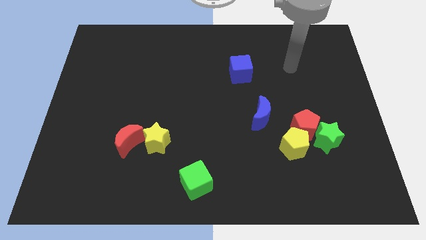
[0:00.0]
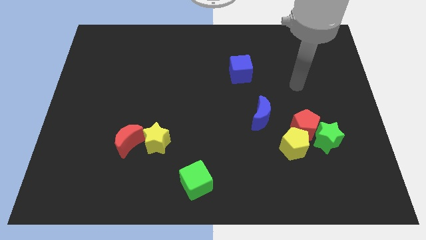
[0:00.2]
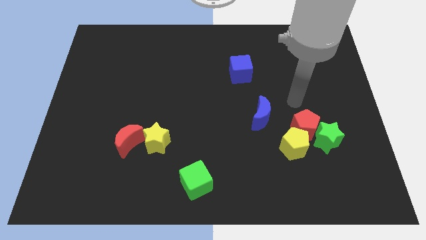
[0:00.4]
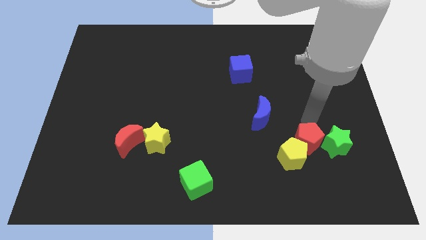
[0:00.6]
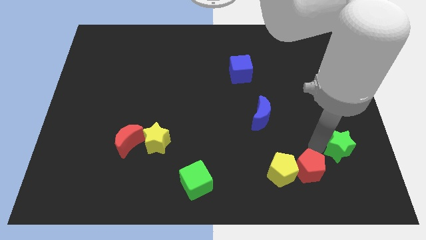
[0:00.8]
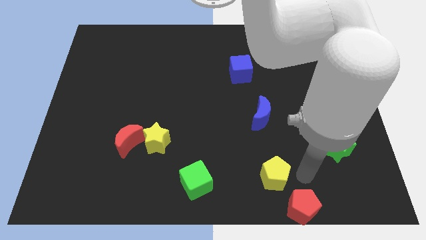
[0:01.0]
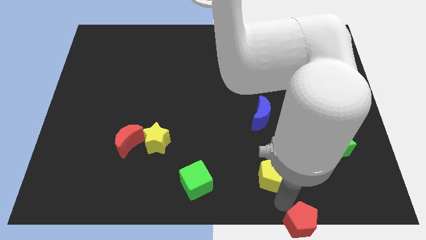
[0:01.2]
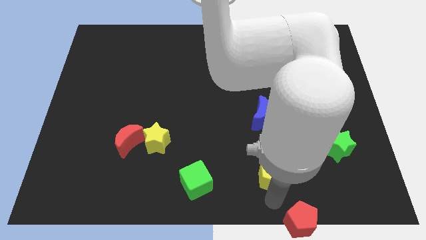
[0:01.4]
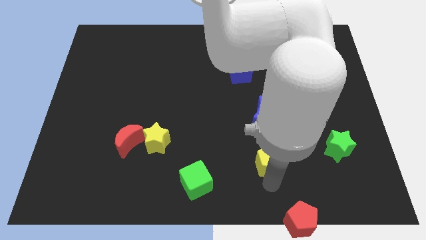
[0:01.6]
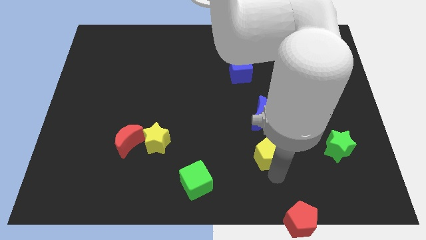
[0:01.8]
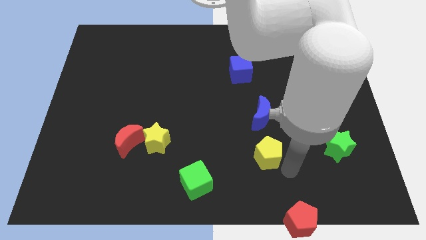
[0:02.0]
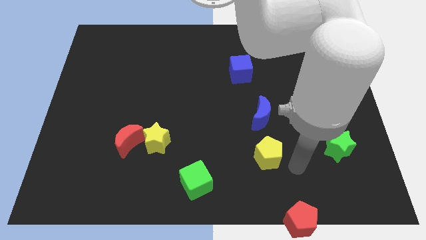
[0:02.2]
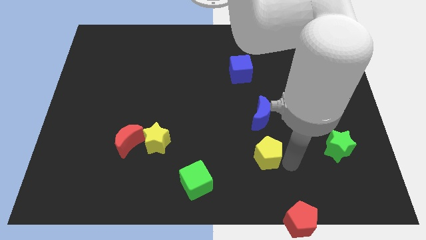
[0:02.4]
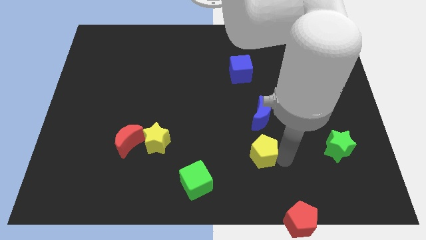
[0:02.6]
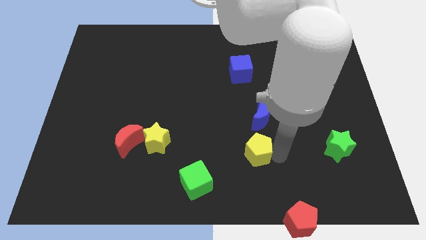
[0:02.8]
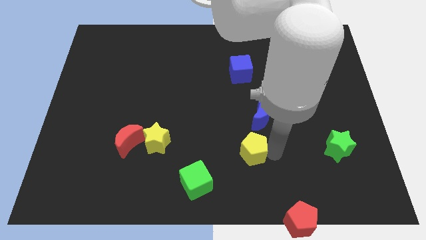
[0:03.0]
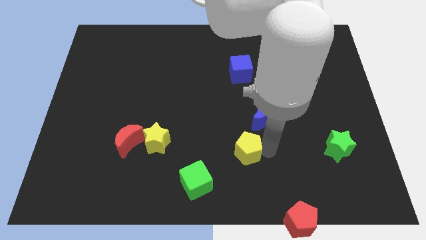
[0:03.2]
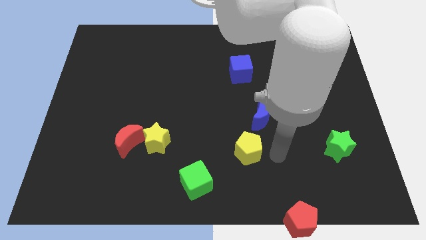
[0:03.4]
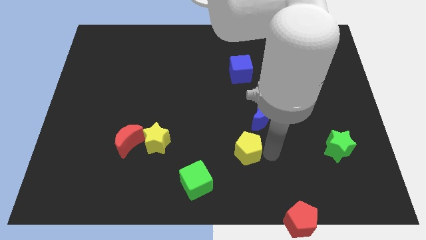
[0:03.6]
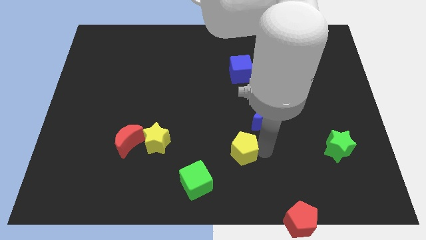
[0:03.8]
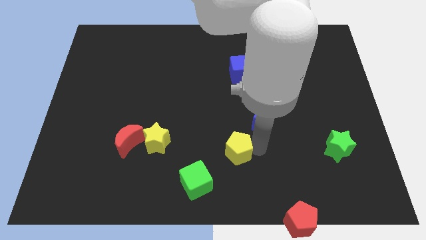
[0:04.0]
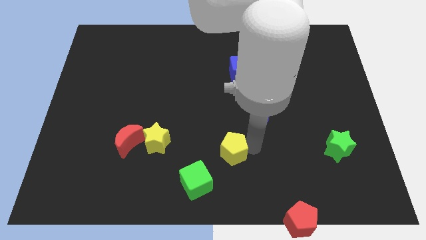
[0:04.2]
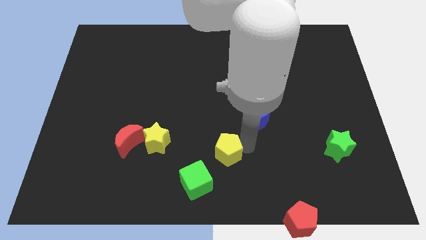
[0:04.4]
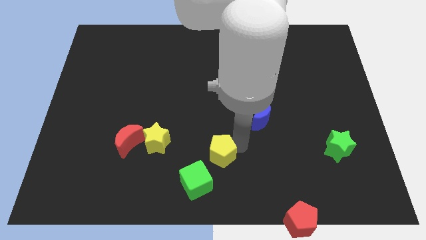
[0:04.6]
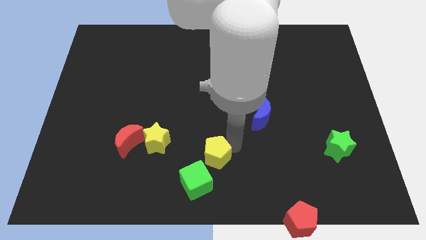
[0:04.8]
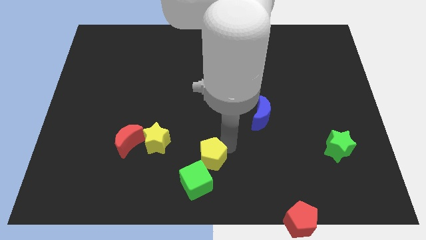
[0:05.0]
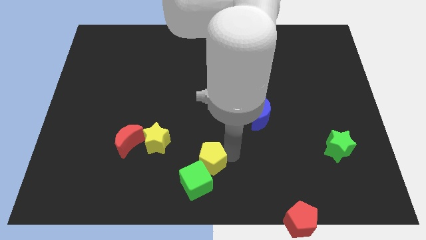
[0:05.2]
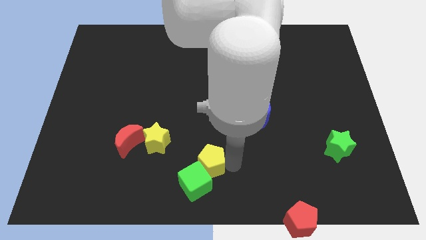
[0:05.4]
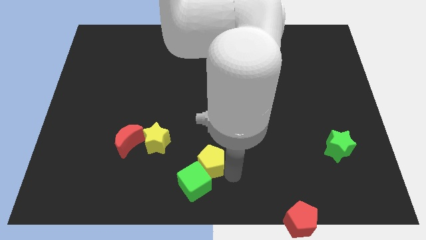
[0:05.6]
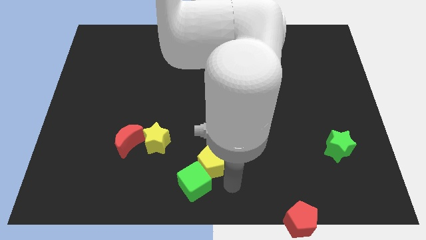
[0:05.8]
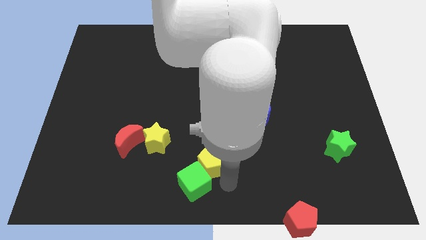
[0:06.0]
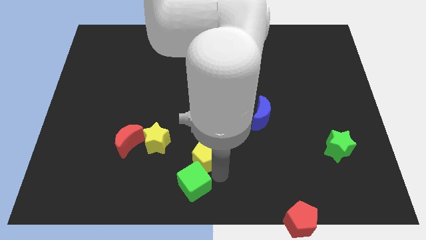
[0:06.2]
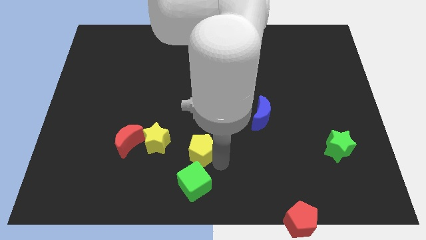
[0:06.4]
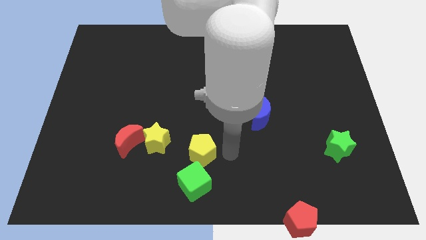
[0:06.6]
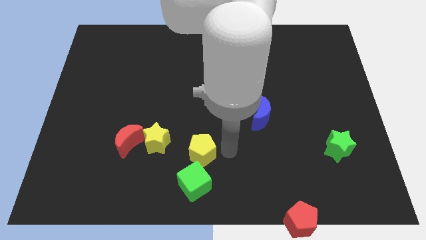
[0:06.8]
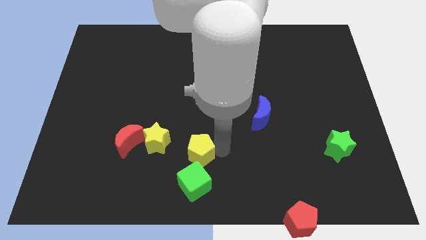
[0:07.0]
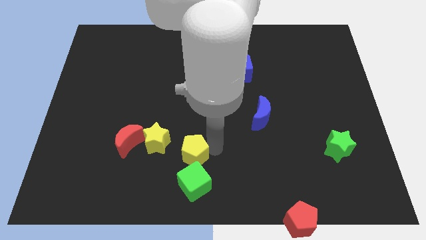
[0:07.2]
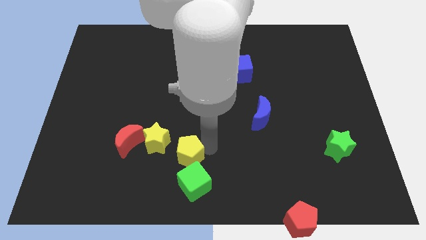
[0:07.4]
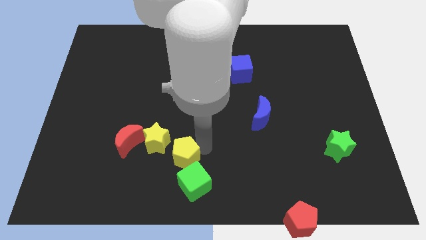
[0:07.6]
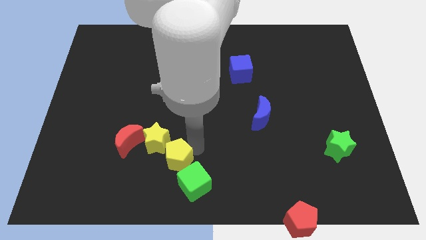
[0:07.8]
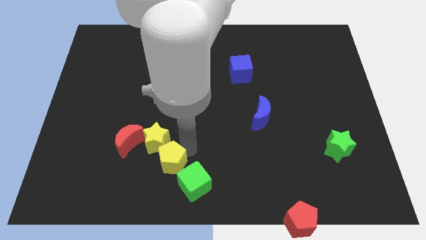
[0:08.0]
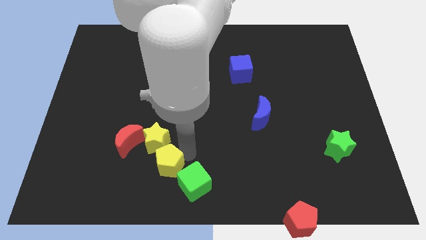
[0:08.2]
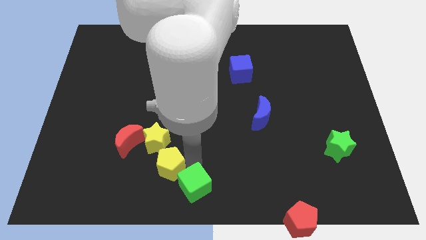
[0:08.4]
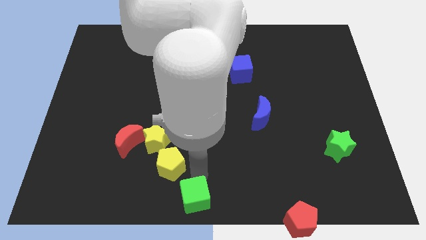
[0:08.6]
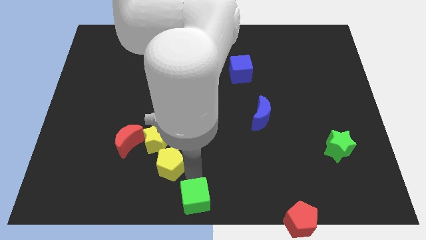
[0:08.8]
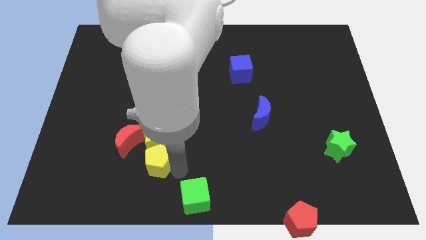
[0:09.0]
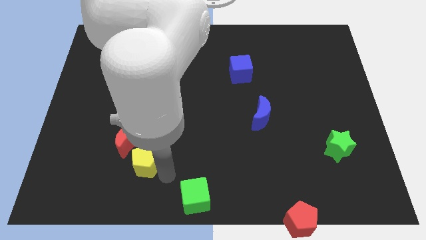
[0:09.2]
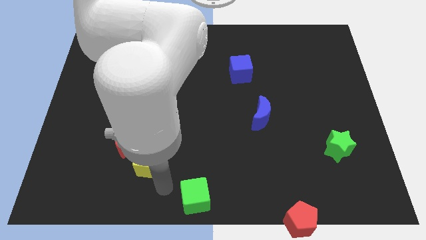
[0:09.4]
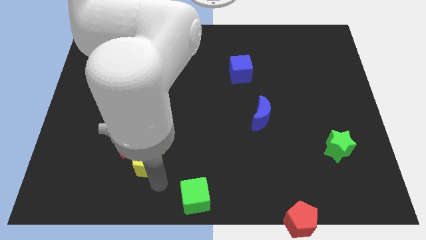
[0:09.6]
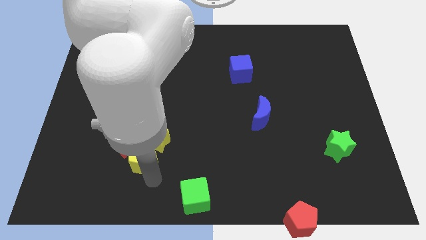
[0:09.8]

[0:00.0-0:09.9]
push the yellow pentagon towards the red moon

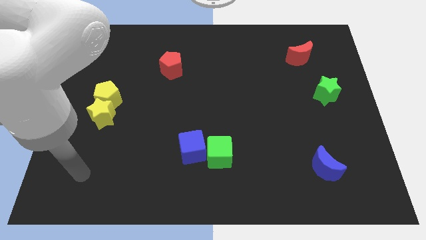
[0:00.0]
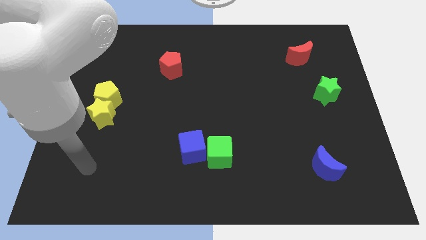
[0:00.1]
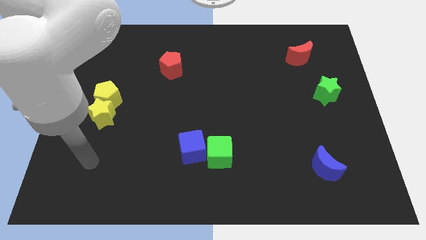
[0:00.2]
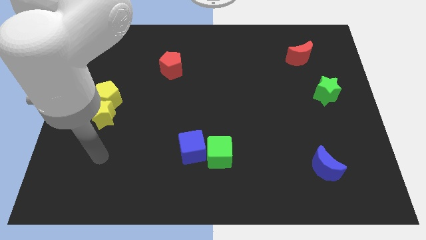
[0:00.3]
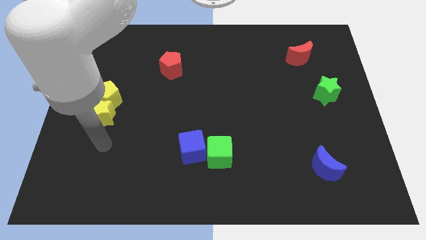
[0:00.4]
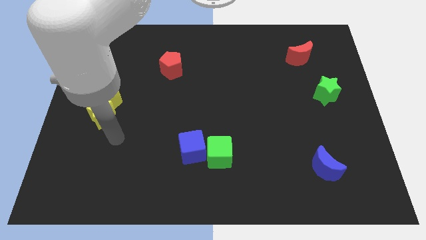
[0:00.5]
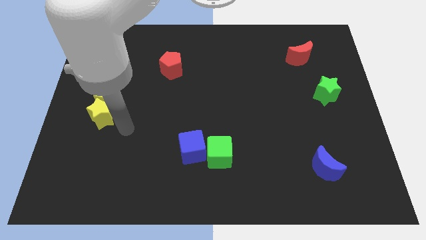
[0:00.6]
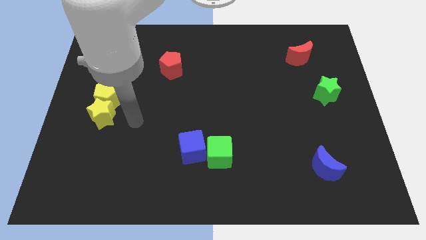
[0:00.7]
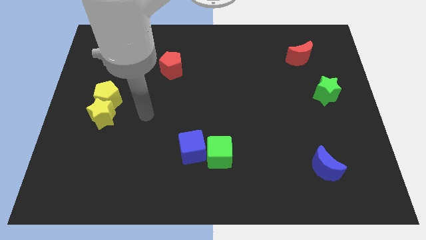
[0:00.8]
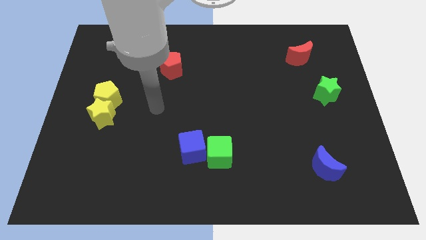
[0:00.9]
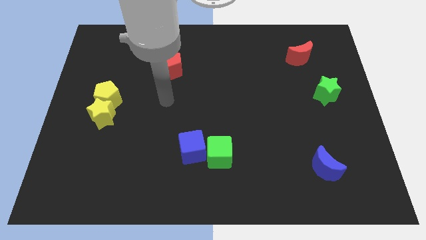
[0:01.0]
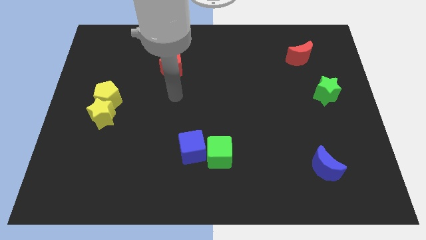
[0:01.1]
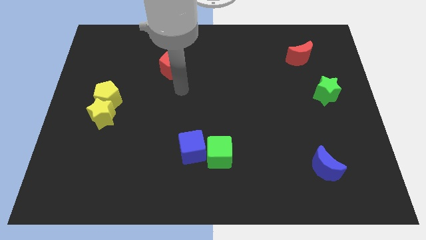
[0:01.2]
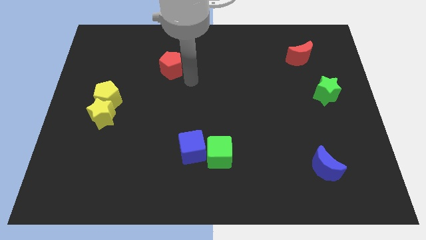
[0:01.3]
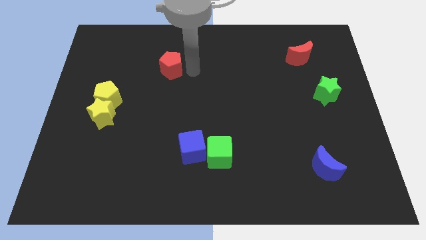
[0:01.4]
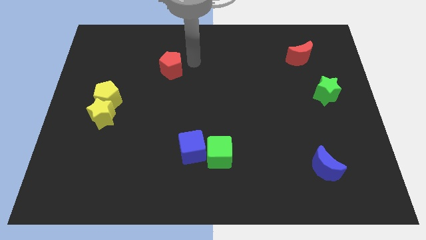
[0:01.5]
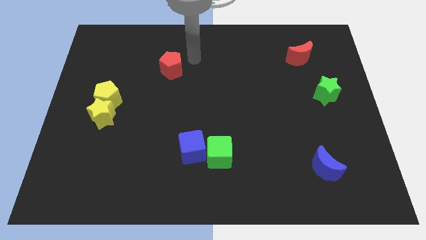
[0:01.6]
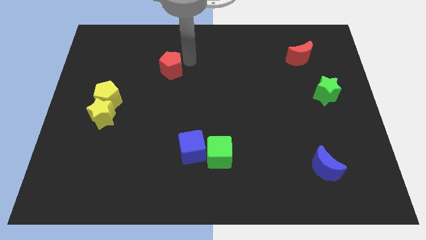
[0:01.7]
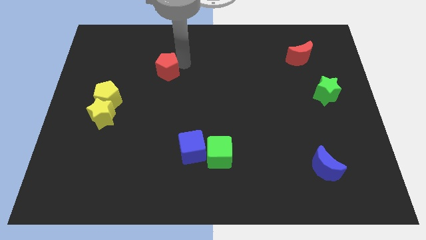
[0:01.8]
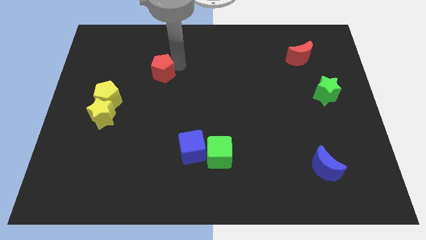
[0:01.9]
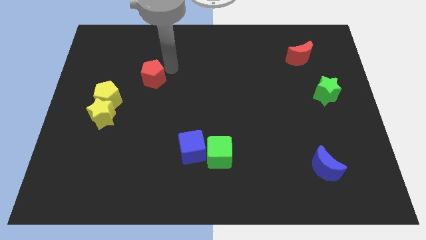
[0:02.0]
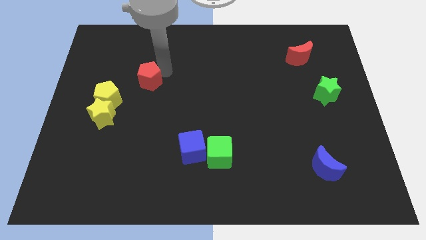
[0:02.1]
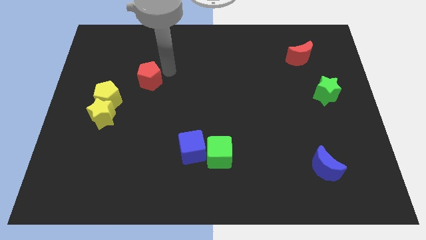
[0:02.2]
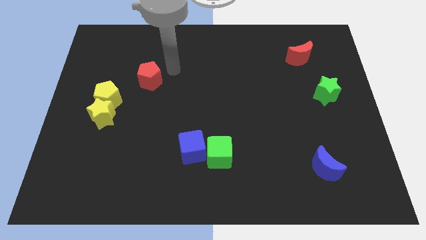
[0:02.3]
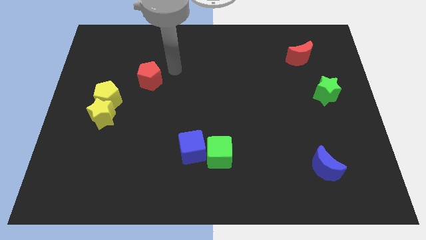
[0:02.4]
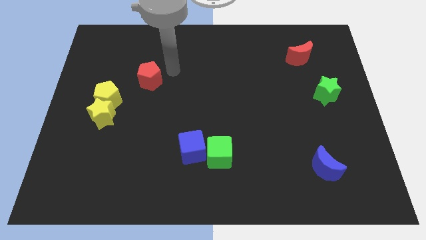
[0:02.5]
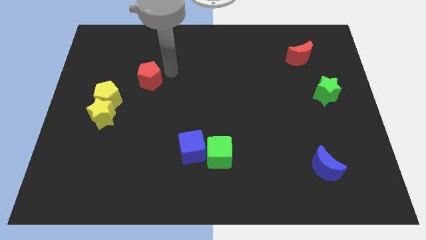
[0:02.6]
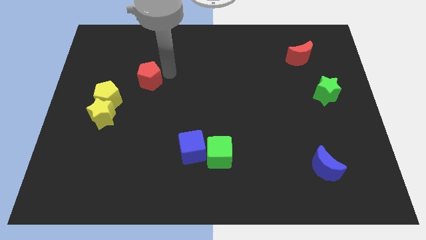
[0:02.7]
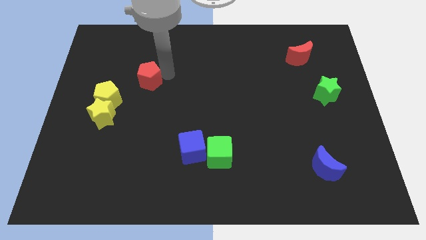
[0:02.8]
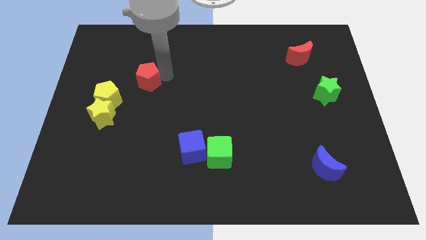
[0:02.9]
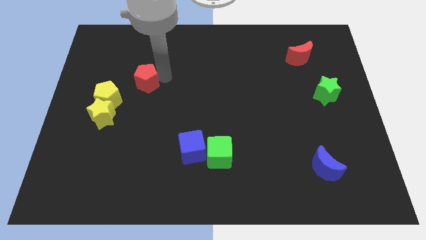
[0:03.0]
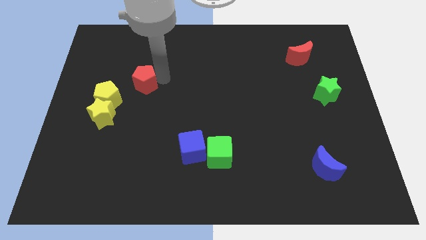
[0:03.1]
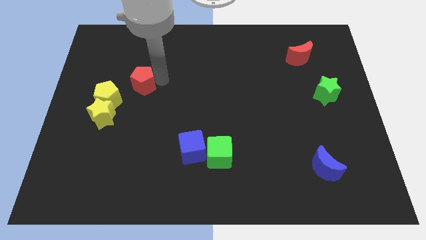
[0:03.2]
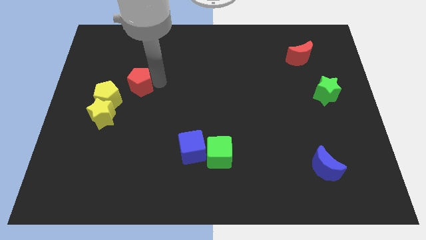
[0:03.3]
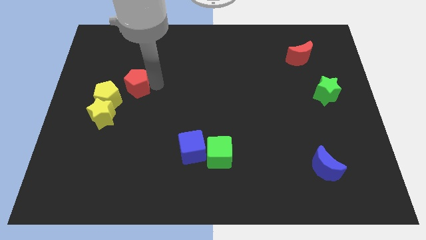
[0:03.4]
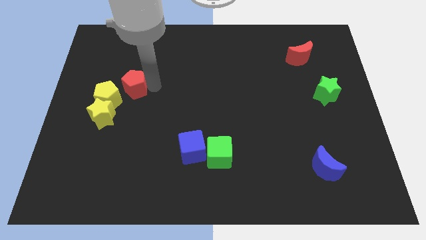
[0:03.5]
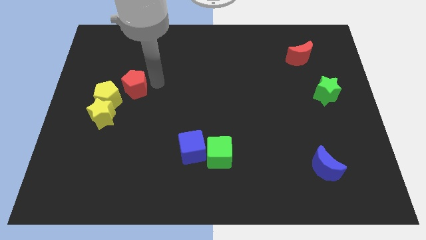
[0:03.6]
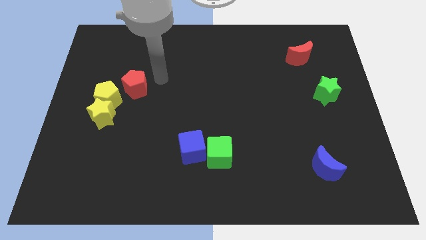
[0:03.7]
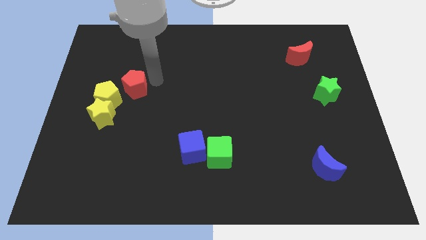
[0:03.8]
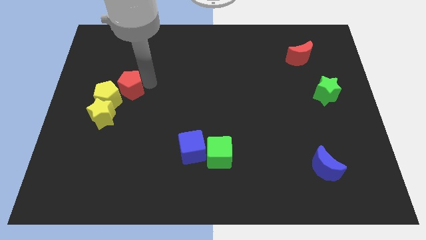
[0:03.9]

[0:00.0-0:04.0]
move the red pentagon close to the yellow pentagon
